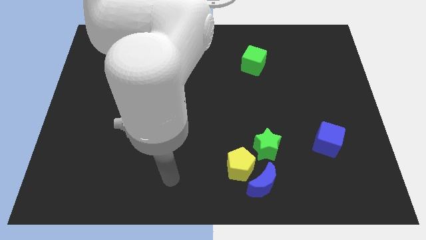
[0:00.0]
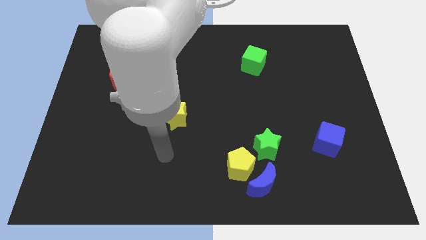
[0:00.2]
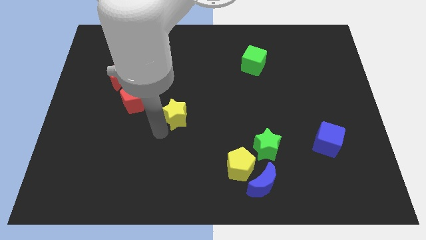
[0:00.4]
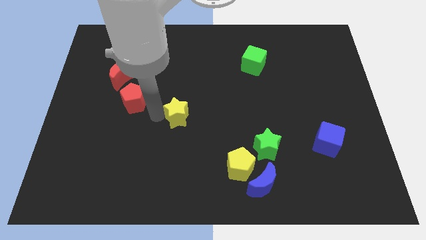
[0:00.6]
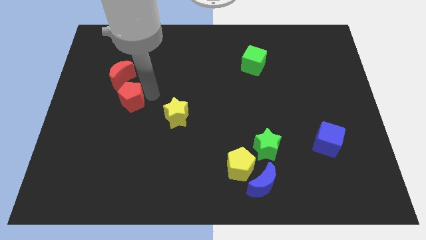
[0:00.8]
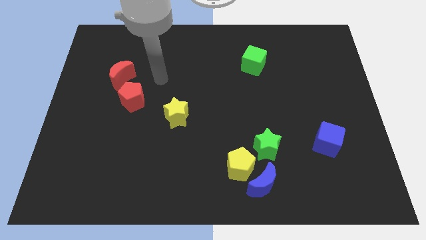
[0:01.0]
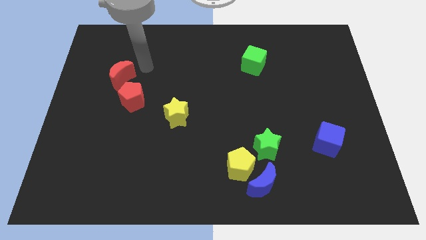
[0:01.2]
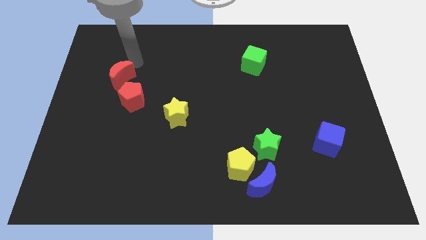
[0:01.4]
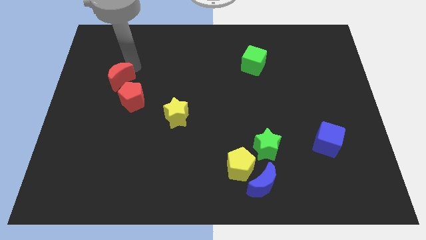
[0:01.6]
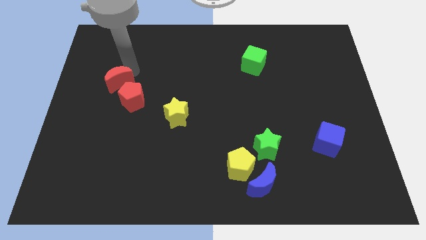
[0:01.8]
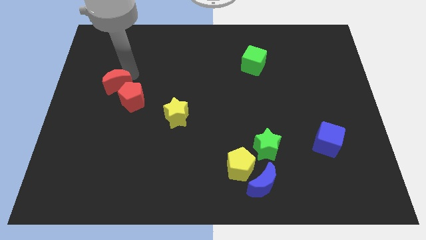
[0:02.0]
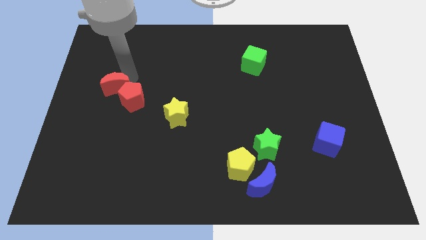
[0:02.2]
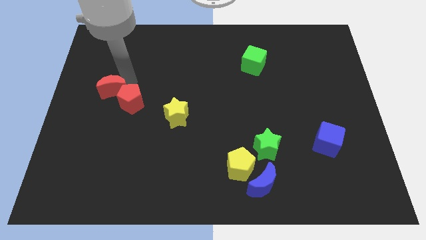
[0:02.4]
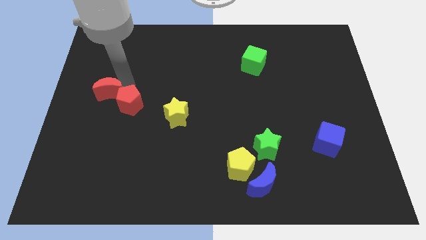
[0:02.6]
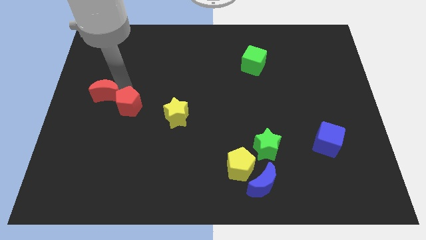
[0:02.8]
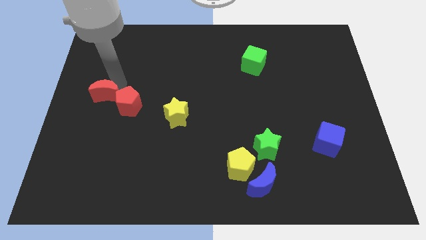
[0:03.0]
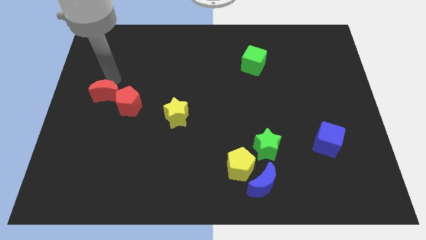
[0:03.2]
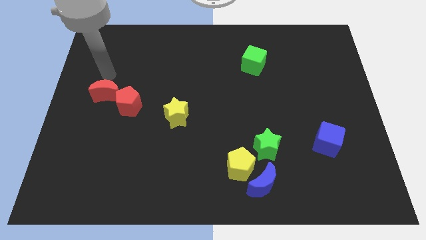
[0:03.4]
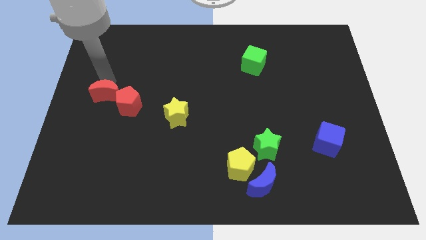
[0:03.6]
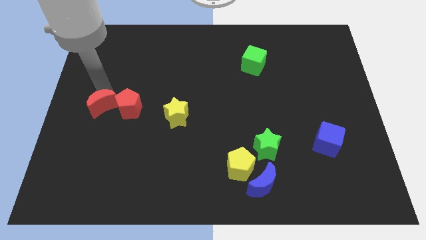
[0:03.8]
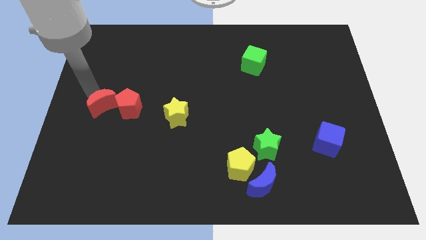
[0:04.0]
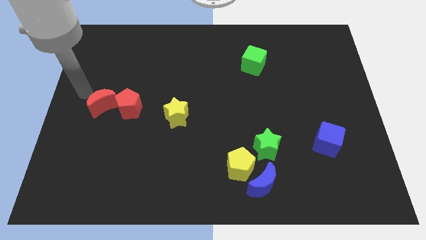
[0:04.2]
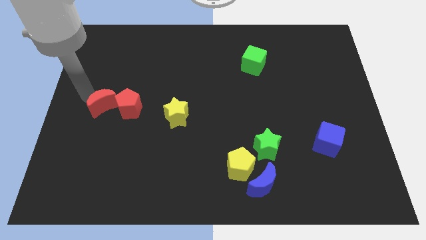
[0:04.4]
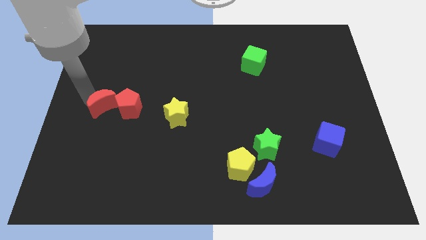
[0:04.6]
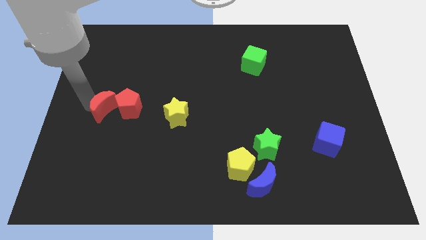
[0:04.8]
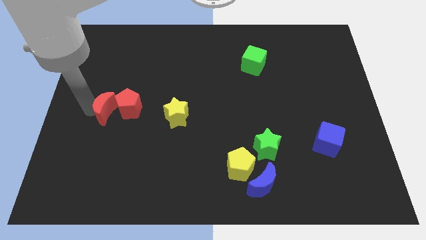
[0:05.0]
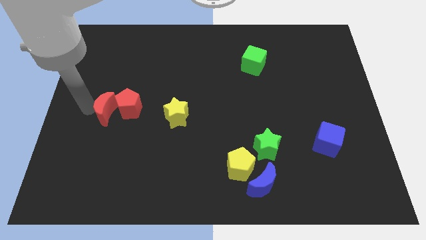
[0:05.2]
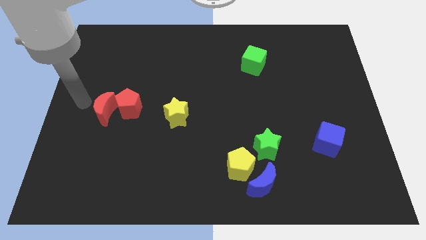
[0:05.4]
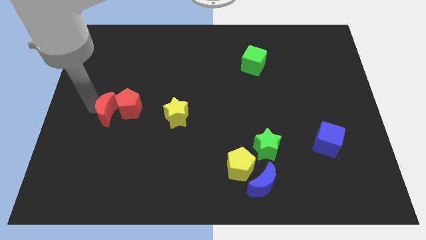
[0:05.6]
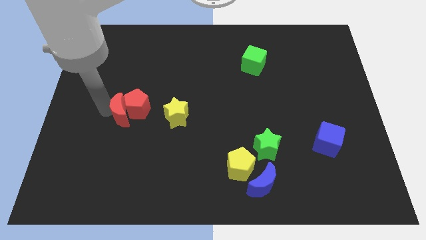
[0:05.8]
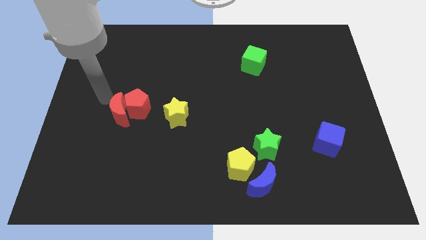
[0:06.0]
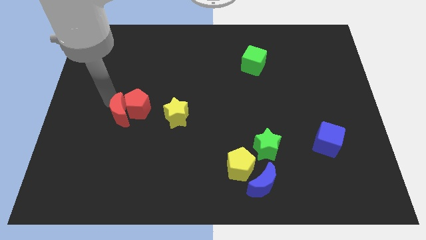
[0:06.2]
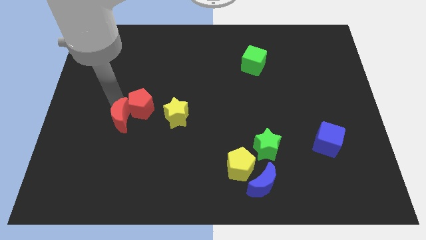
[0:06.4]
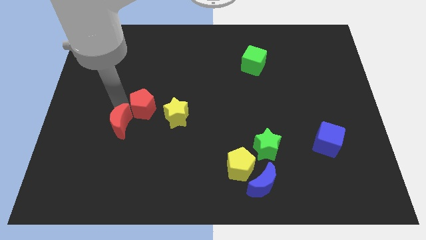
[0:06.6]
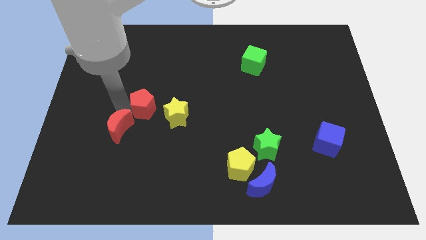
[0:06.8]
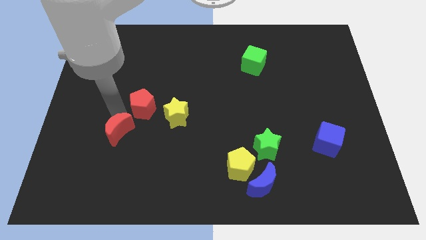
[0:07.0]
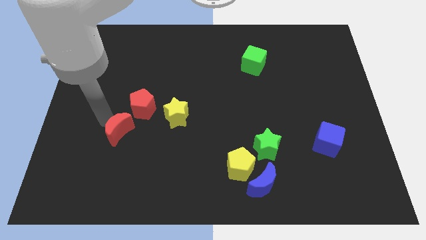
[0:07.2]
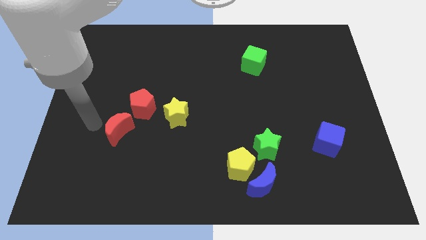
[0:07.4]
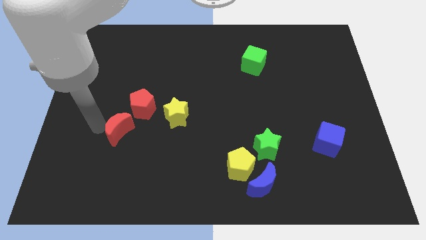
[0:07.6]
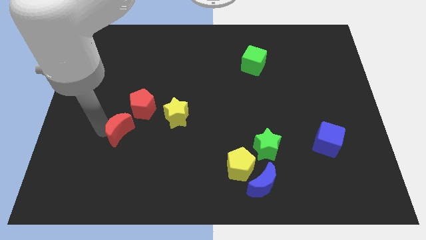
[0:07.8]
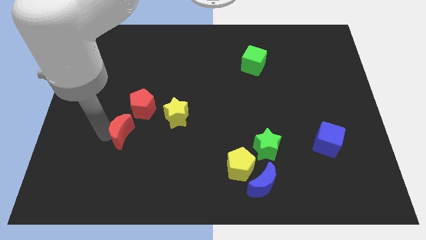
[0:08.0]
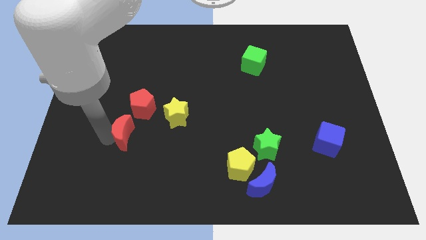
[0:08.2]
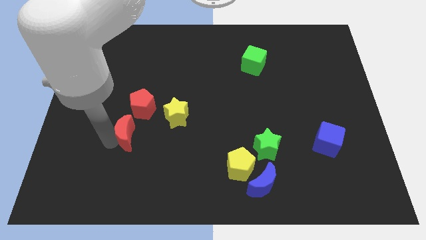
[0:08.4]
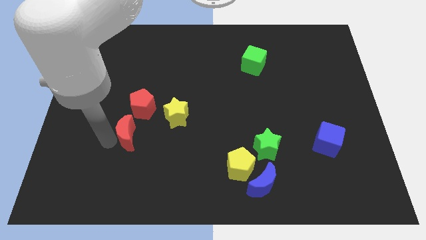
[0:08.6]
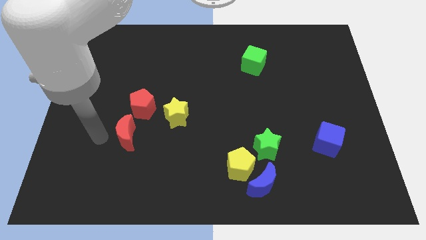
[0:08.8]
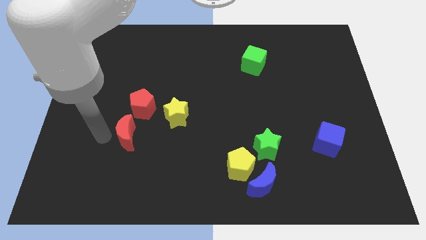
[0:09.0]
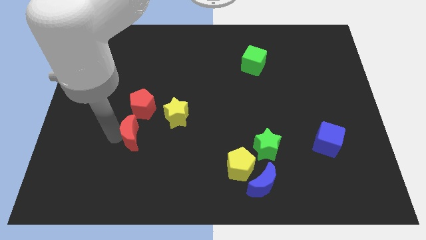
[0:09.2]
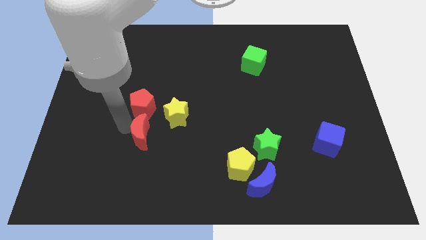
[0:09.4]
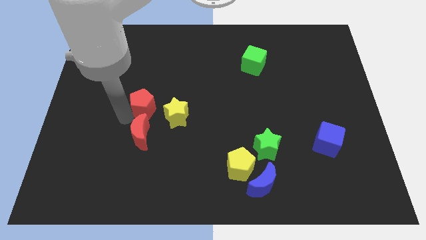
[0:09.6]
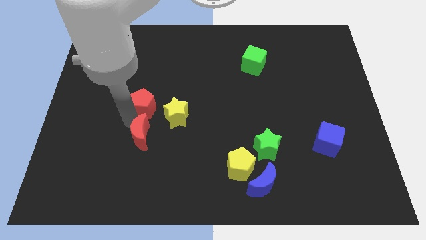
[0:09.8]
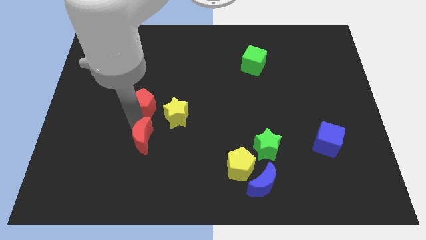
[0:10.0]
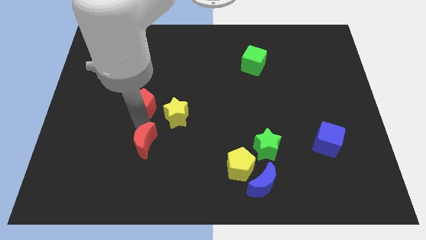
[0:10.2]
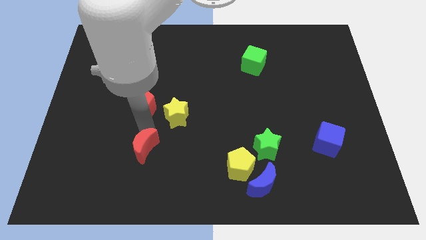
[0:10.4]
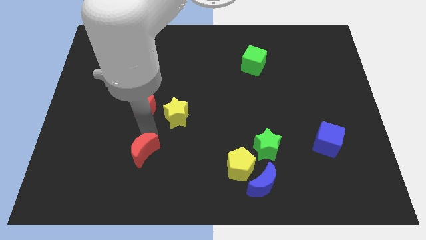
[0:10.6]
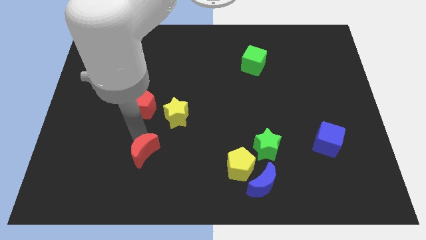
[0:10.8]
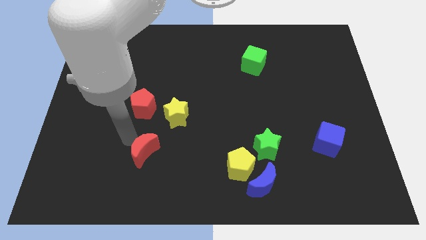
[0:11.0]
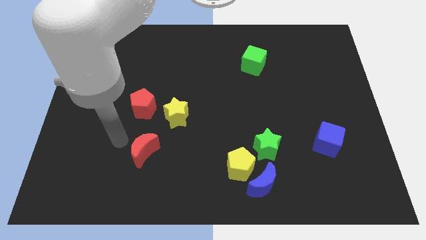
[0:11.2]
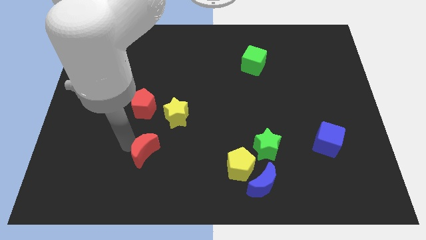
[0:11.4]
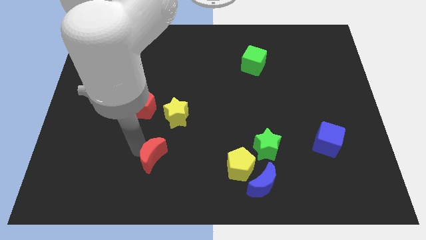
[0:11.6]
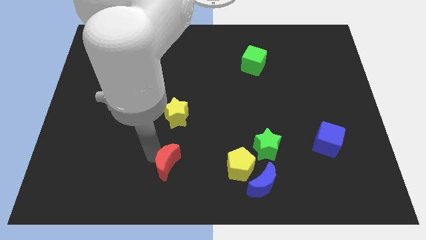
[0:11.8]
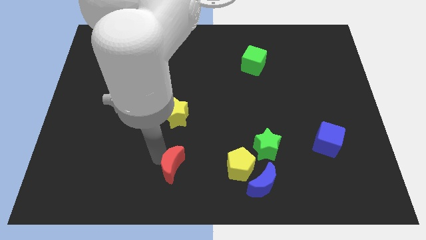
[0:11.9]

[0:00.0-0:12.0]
push the red moon to the bottom

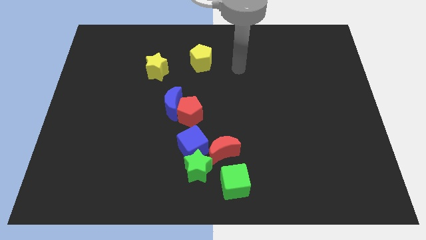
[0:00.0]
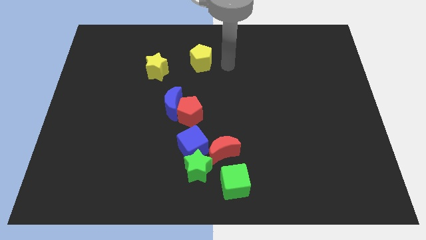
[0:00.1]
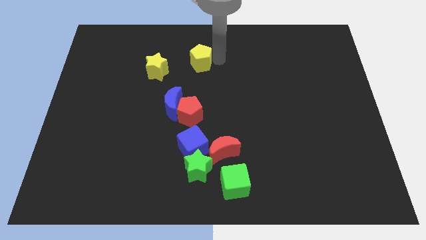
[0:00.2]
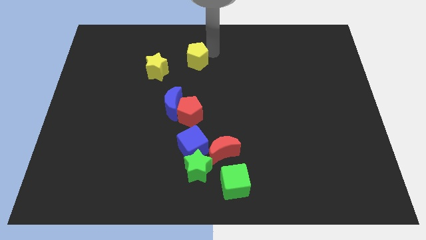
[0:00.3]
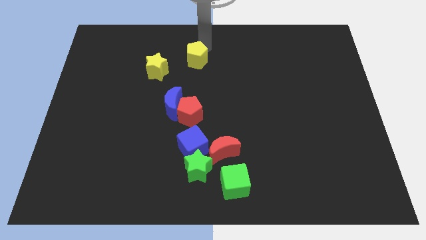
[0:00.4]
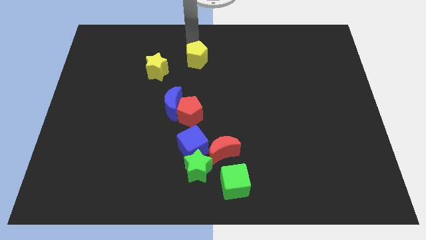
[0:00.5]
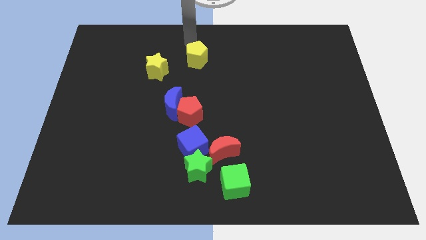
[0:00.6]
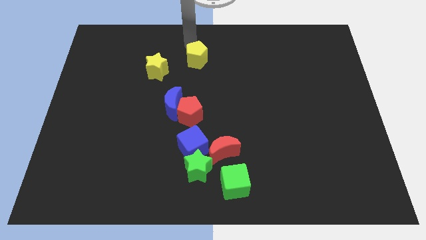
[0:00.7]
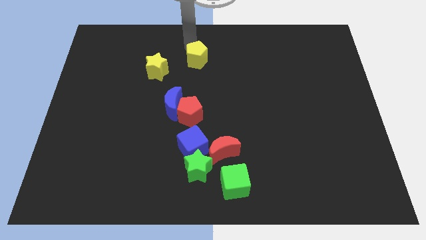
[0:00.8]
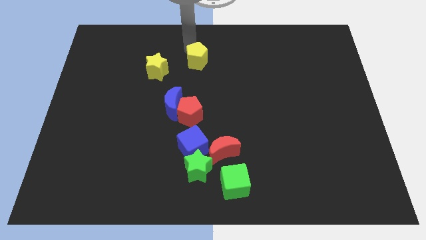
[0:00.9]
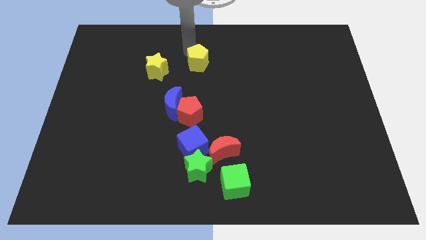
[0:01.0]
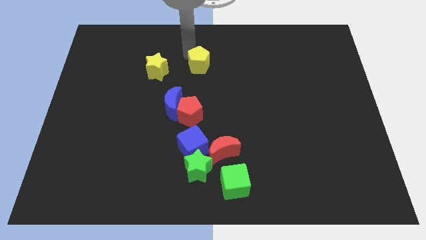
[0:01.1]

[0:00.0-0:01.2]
push the yellow pentagon to the center of the board
